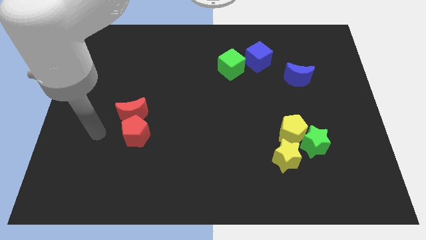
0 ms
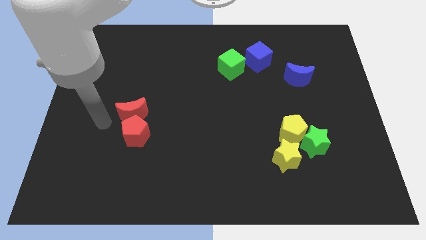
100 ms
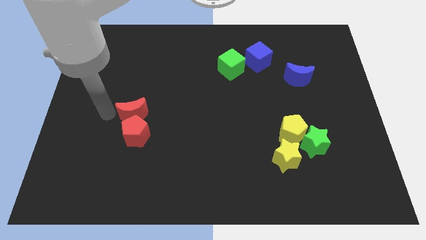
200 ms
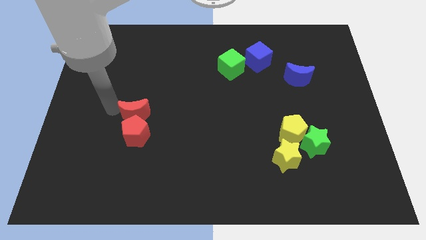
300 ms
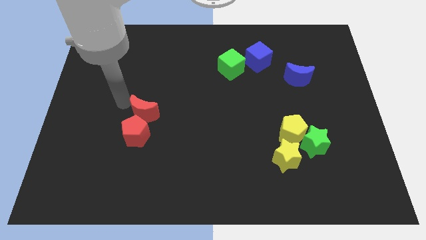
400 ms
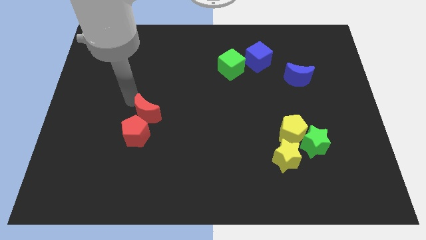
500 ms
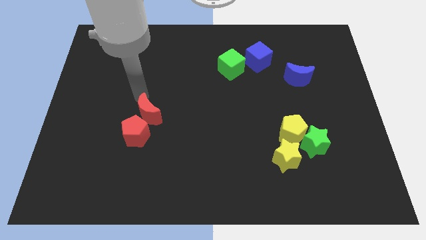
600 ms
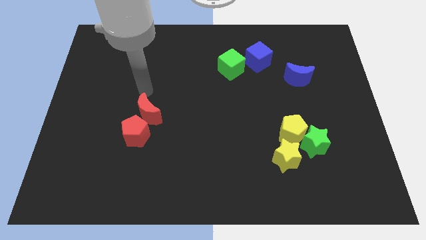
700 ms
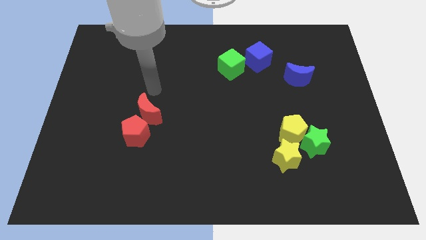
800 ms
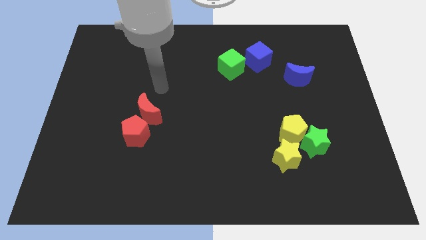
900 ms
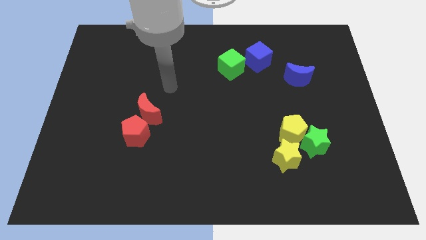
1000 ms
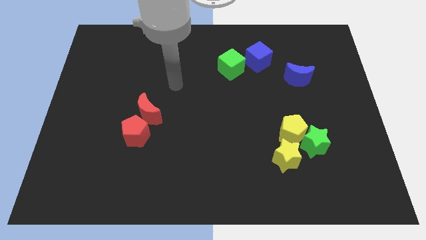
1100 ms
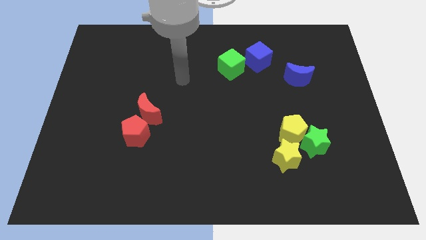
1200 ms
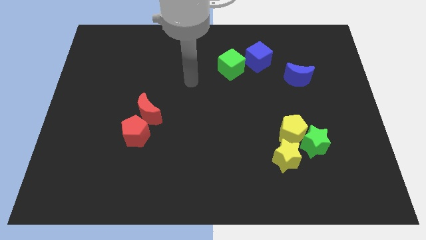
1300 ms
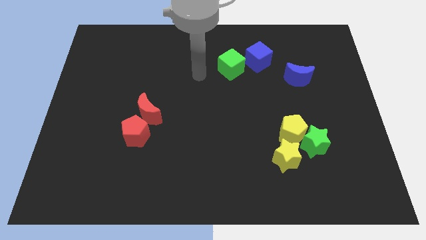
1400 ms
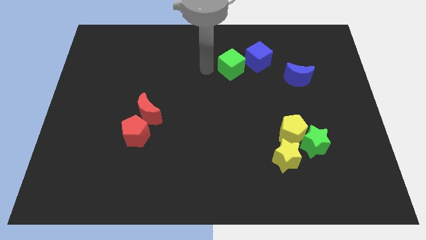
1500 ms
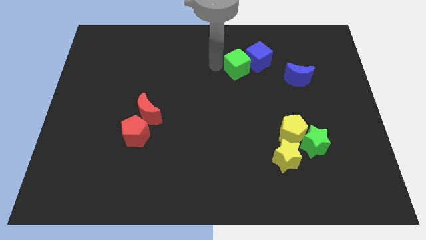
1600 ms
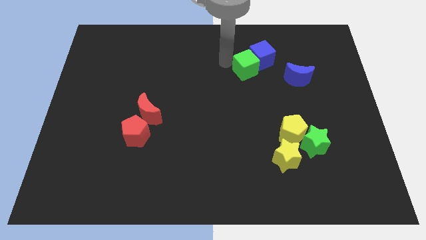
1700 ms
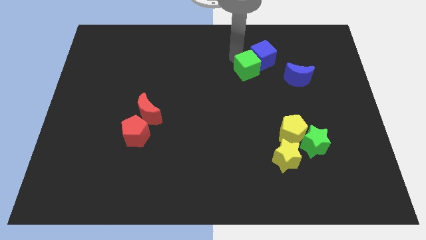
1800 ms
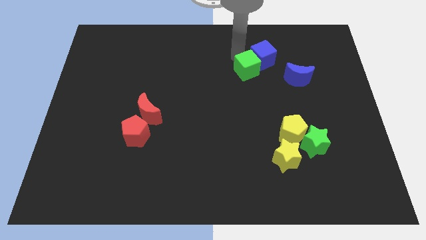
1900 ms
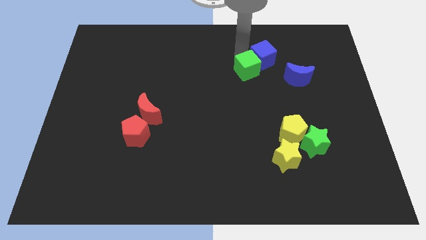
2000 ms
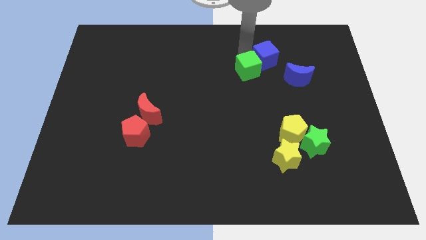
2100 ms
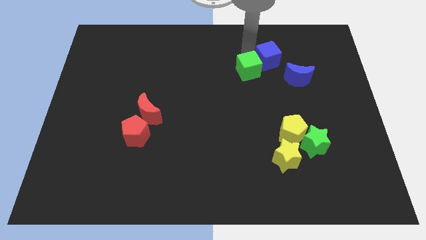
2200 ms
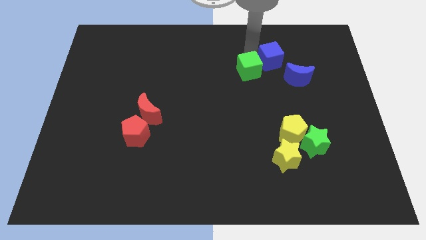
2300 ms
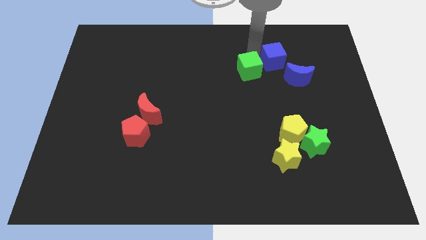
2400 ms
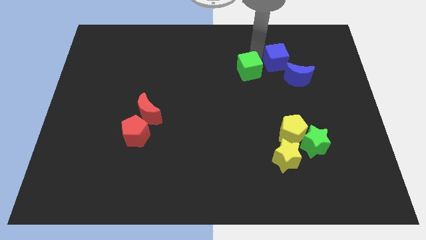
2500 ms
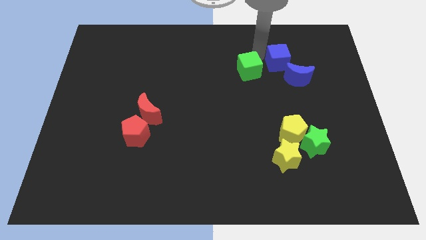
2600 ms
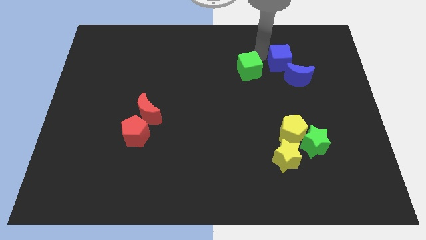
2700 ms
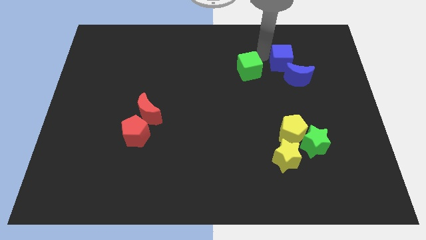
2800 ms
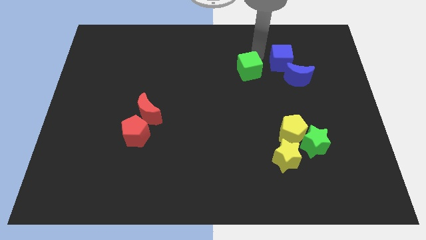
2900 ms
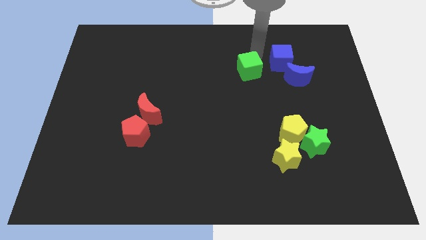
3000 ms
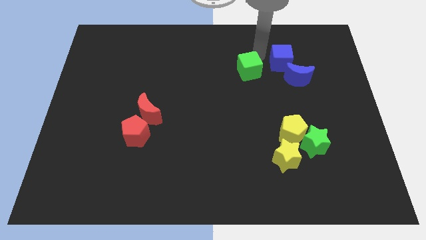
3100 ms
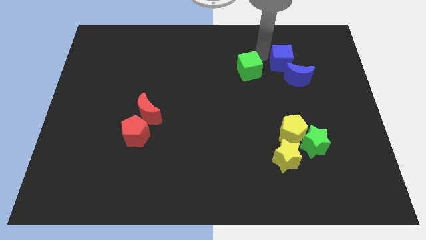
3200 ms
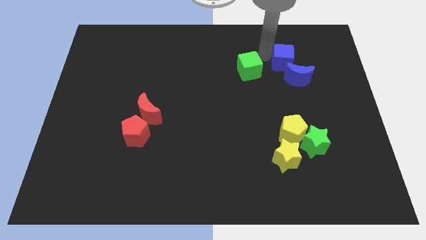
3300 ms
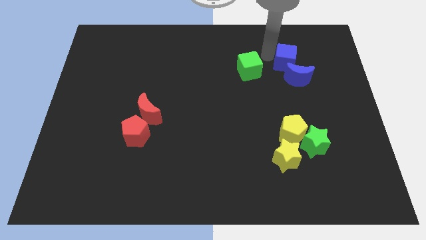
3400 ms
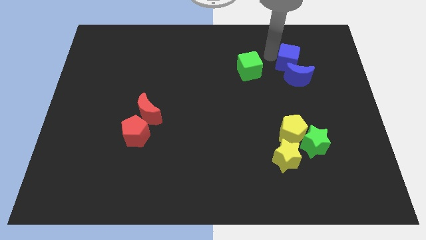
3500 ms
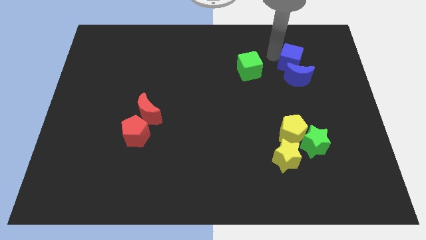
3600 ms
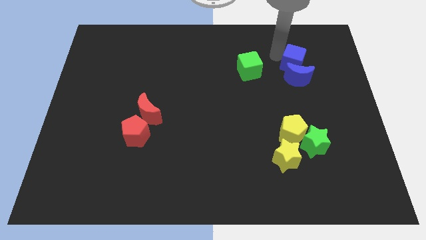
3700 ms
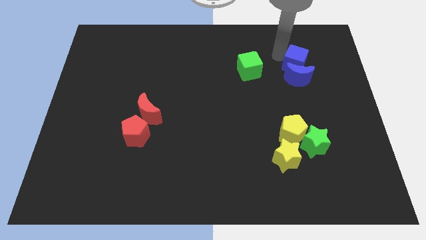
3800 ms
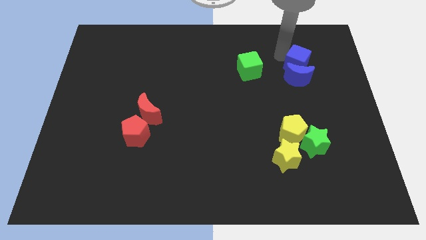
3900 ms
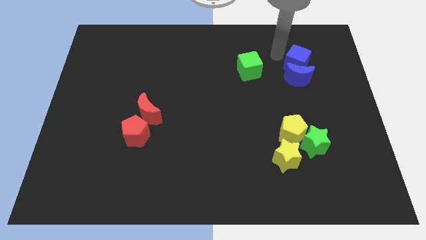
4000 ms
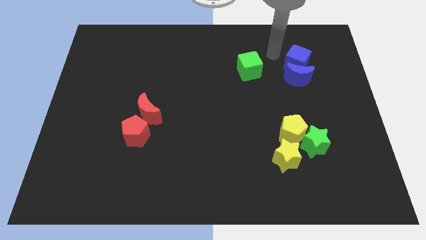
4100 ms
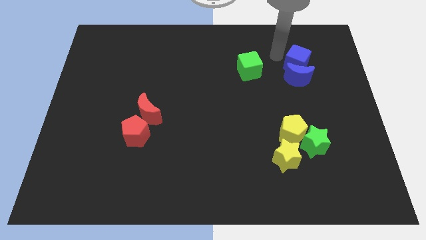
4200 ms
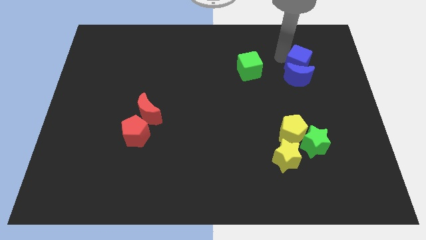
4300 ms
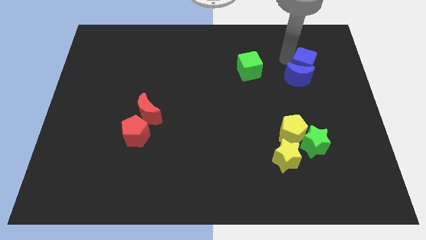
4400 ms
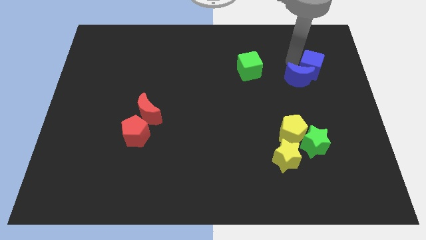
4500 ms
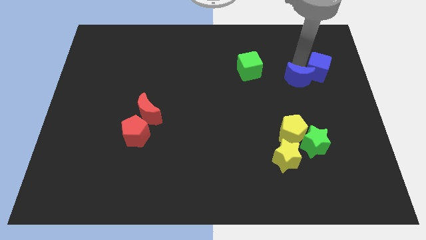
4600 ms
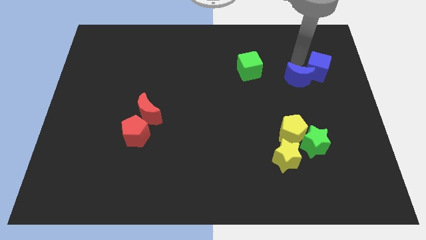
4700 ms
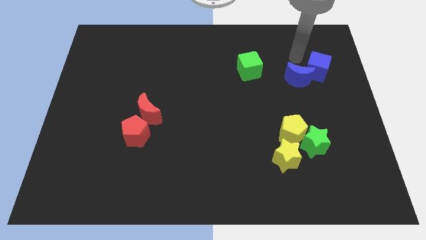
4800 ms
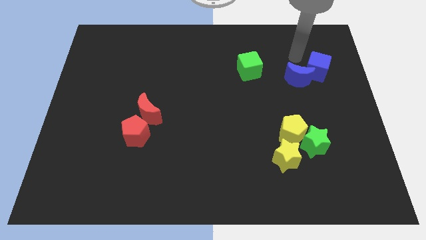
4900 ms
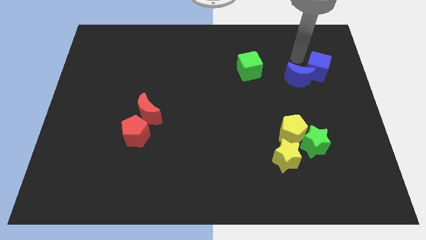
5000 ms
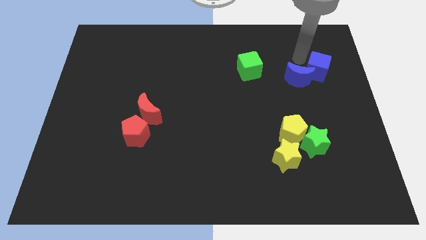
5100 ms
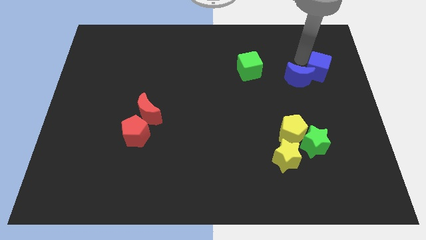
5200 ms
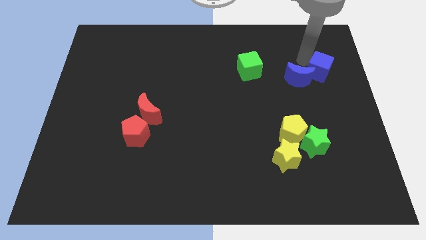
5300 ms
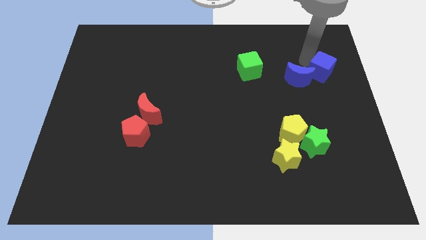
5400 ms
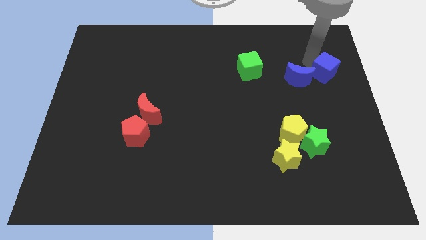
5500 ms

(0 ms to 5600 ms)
put the blue cube to the right side of the board
